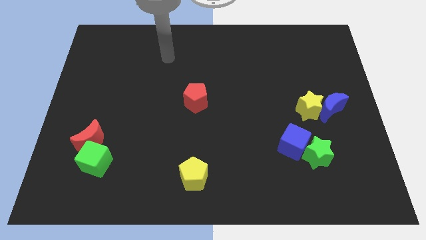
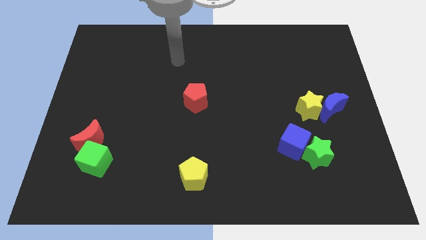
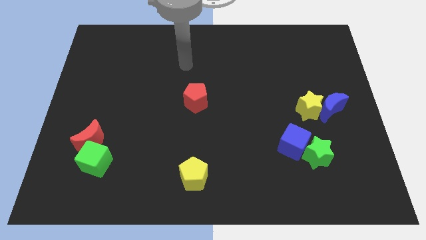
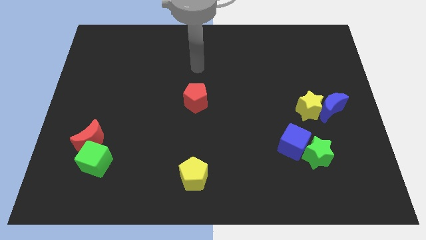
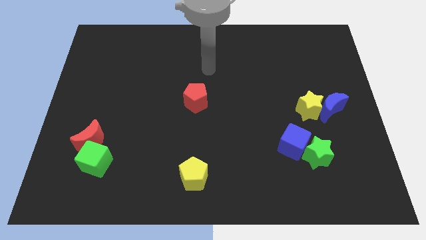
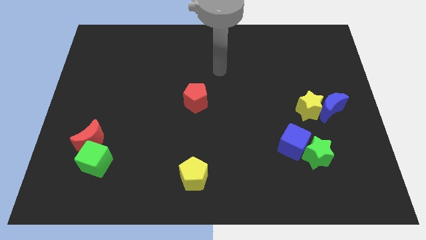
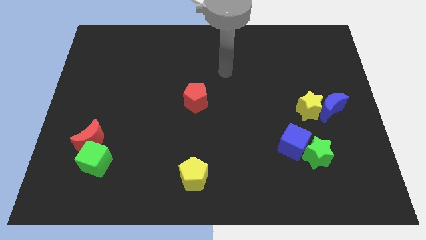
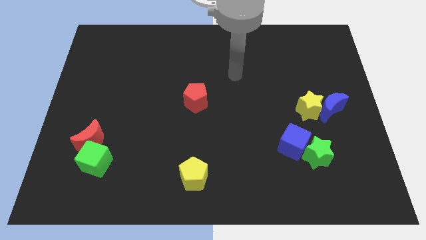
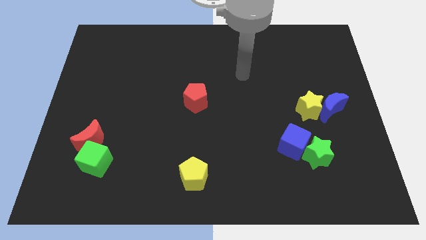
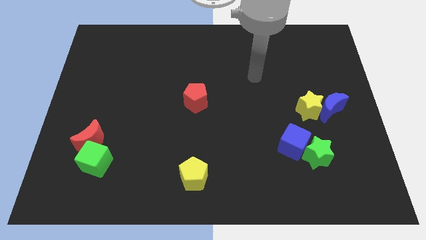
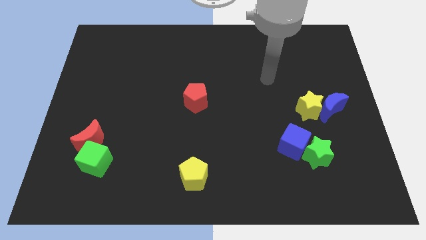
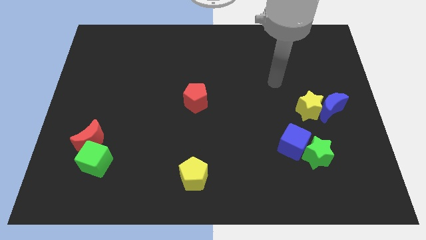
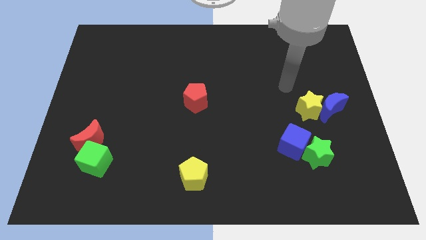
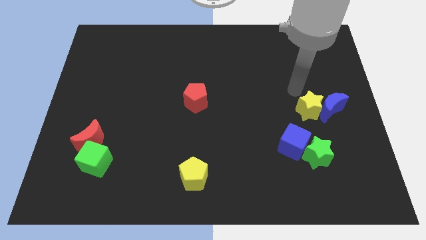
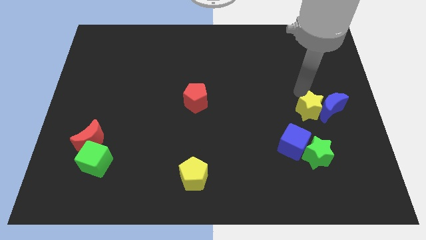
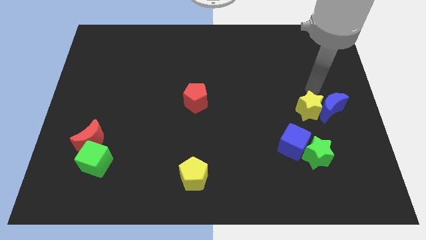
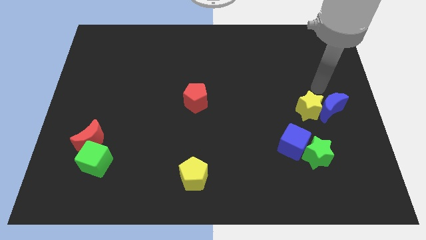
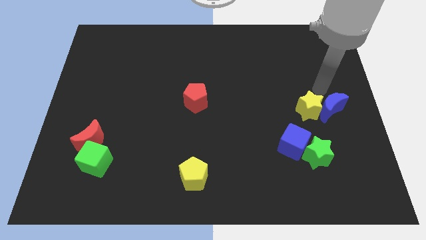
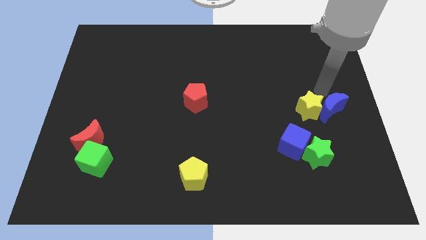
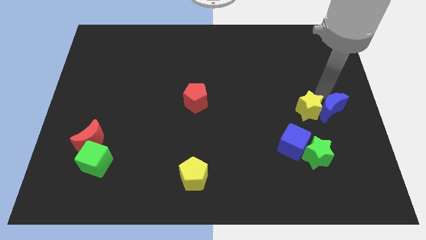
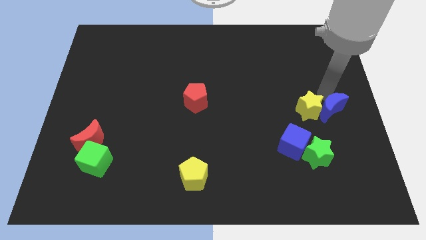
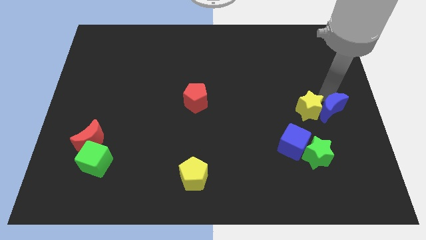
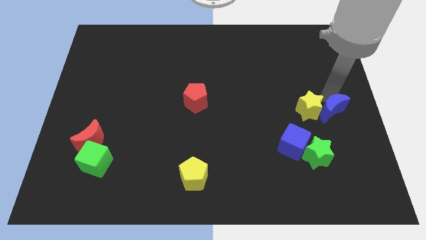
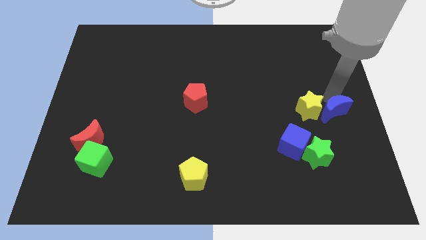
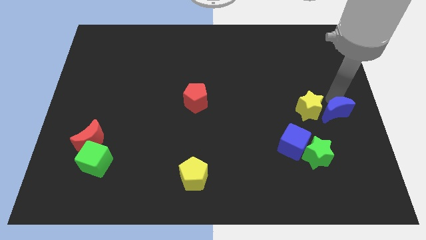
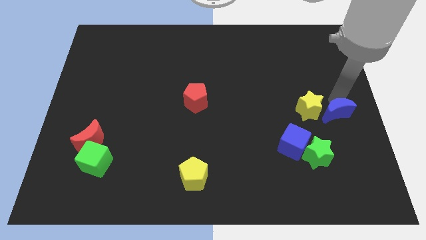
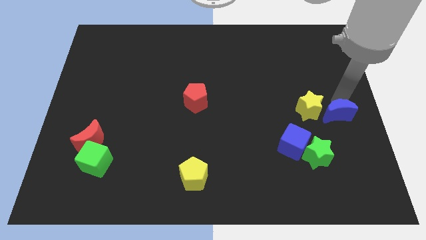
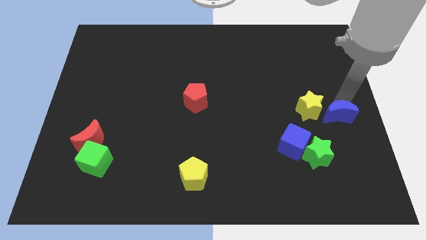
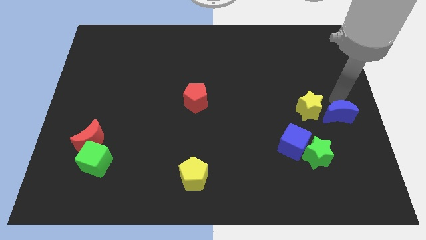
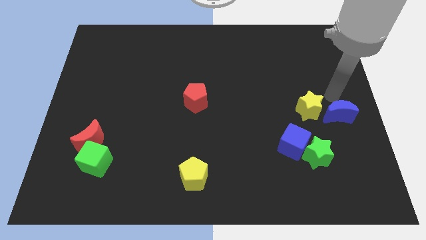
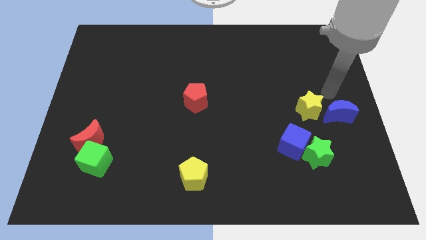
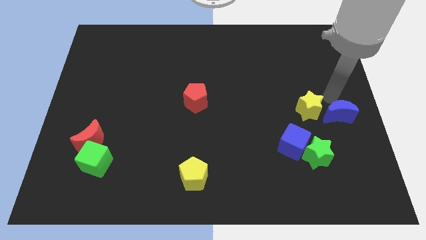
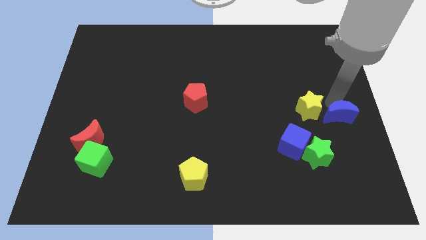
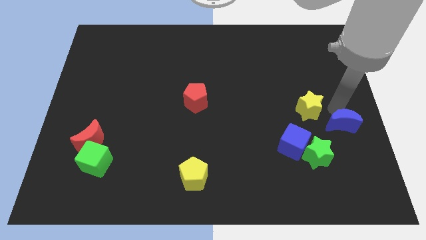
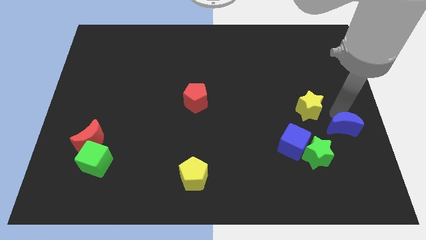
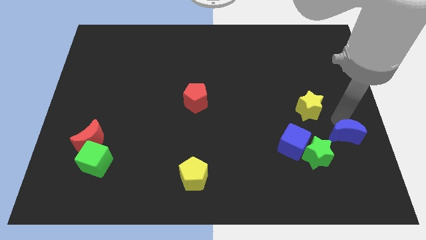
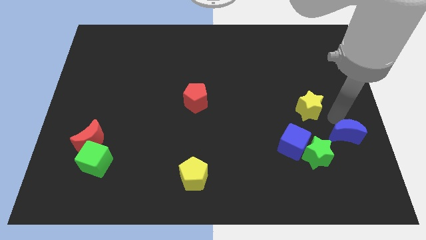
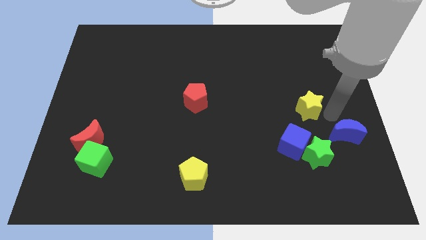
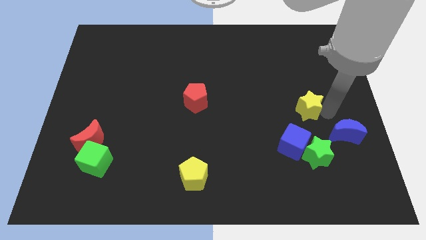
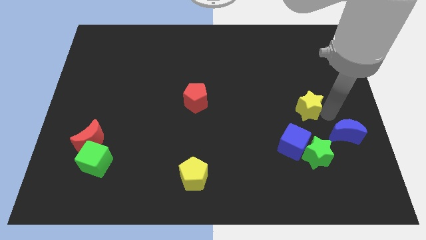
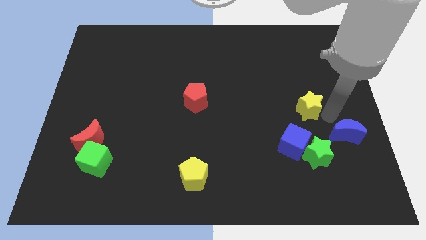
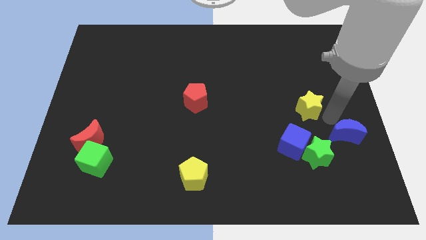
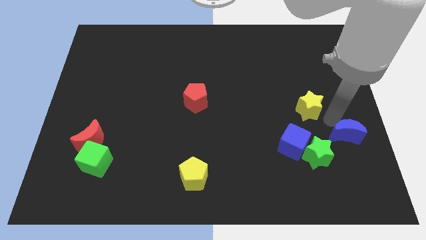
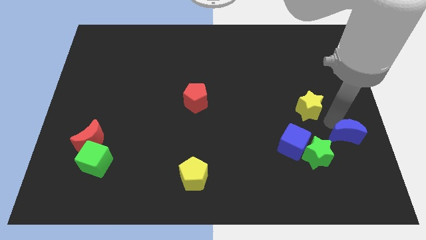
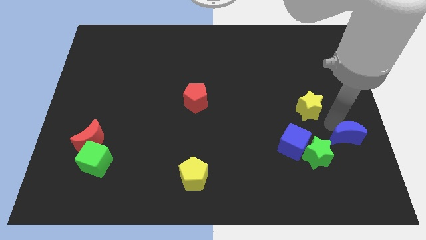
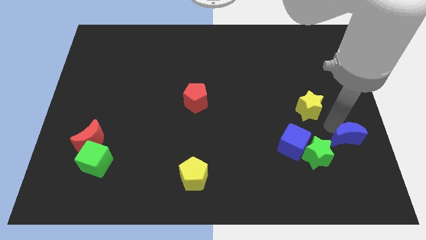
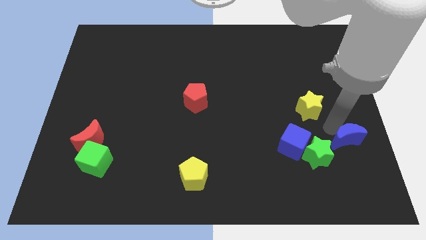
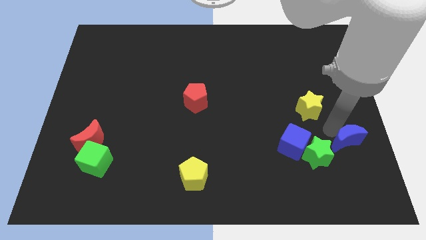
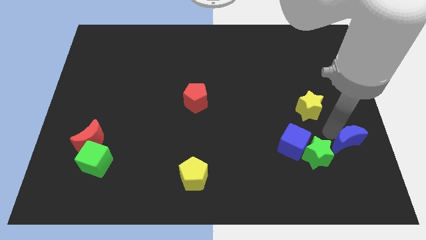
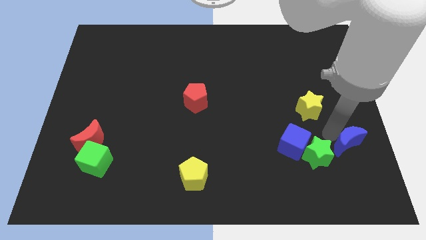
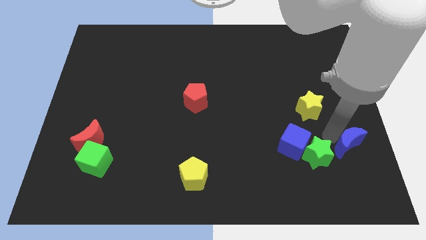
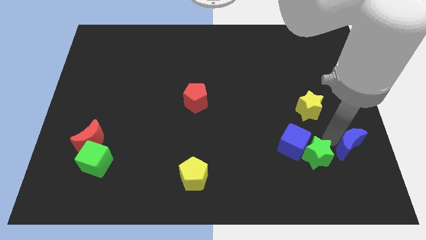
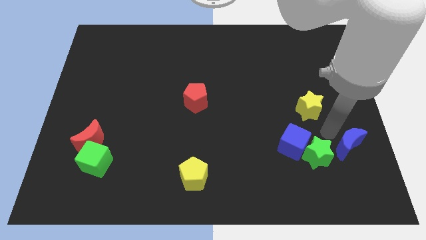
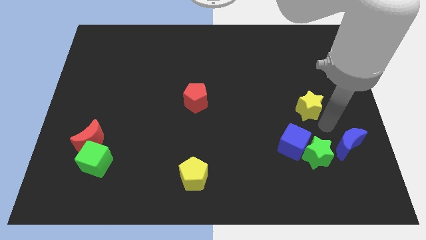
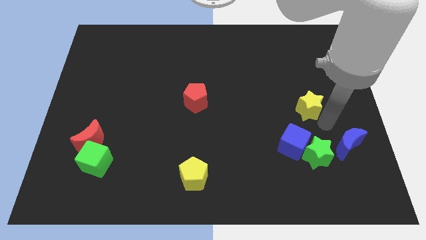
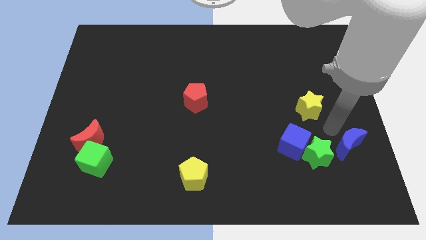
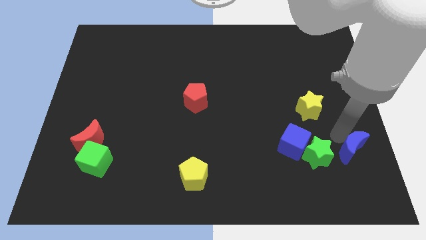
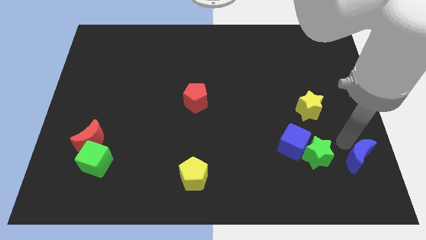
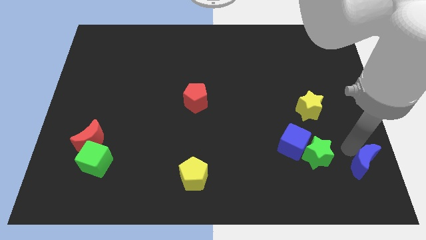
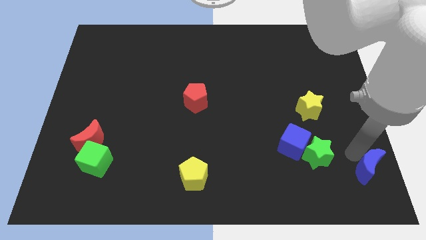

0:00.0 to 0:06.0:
put the blue moon to the bottom right
